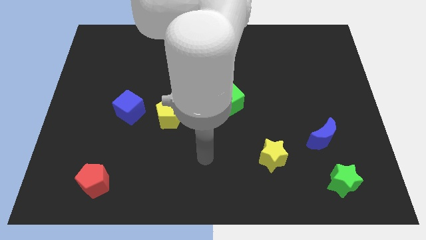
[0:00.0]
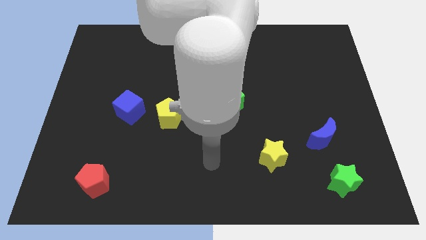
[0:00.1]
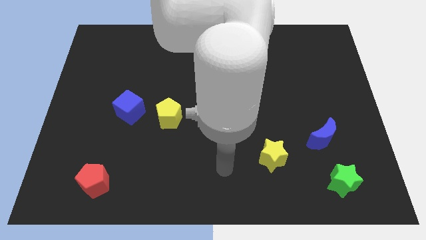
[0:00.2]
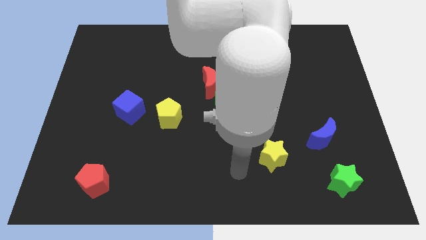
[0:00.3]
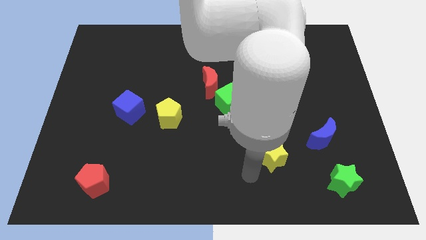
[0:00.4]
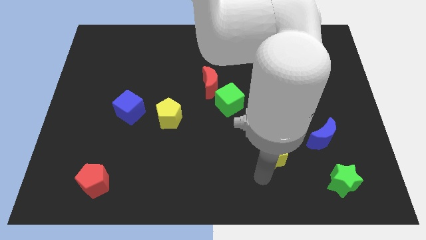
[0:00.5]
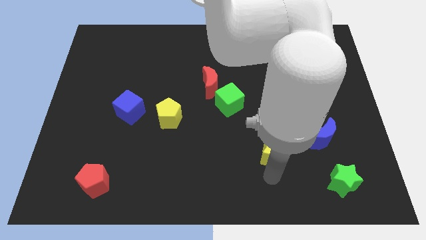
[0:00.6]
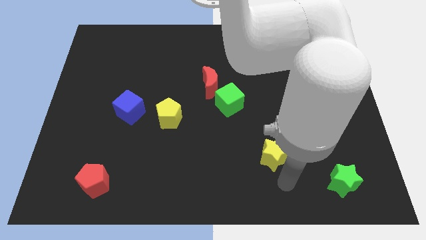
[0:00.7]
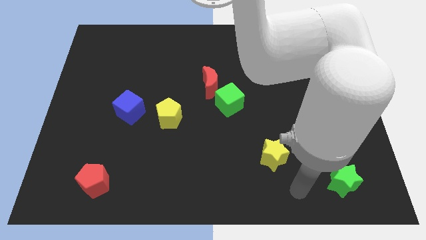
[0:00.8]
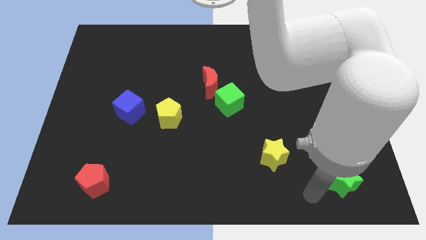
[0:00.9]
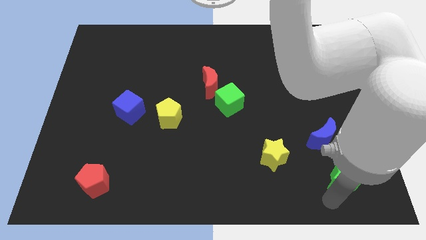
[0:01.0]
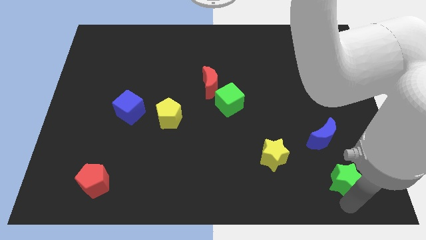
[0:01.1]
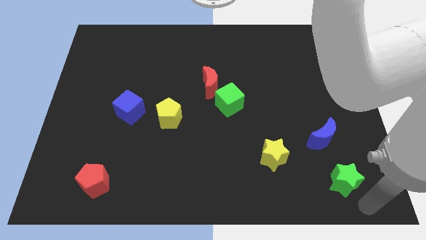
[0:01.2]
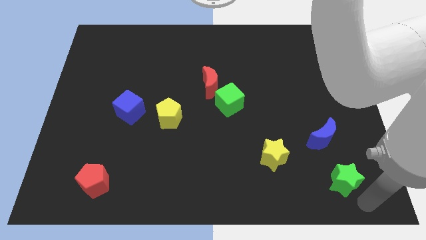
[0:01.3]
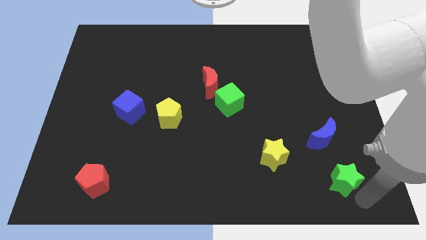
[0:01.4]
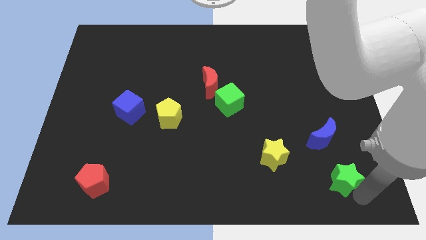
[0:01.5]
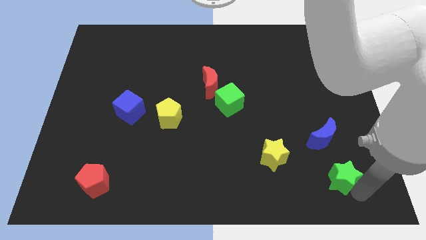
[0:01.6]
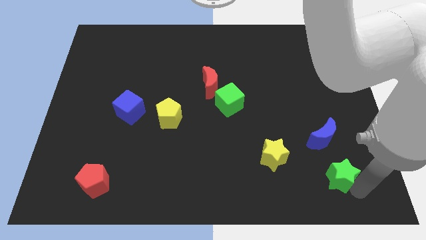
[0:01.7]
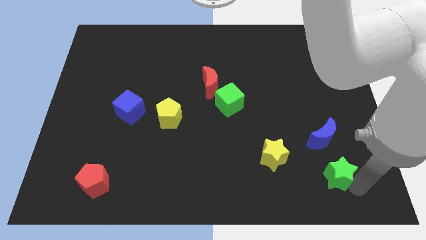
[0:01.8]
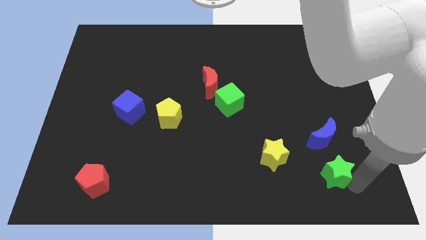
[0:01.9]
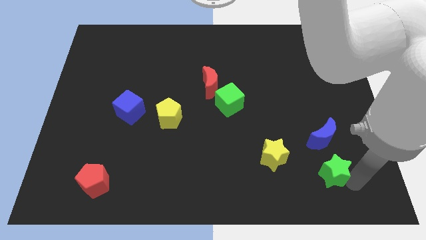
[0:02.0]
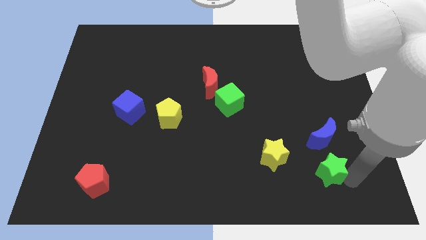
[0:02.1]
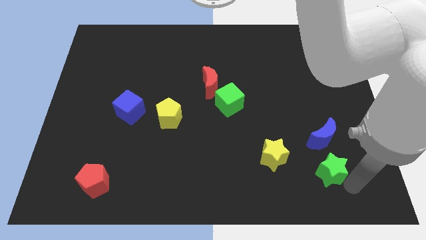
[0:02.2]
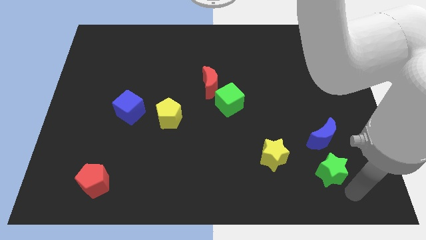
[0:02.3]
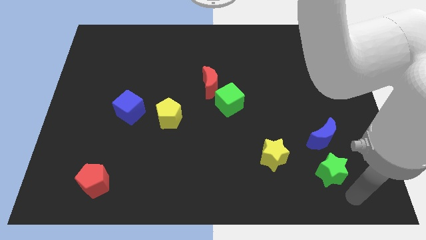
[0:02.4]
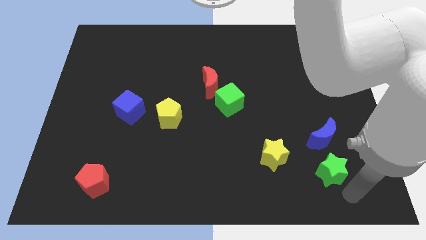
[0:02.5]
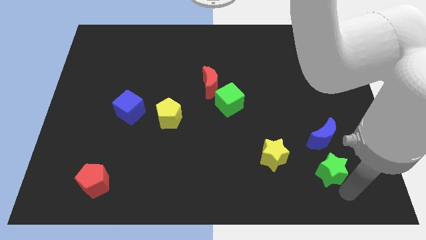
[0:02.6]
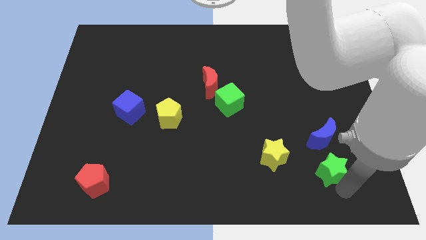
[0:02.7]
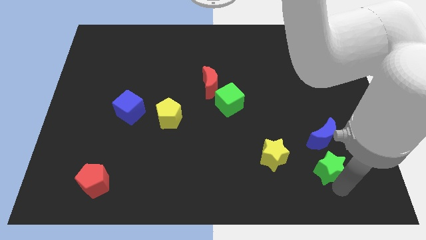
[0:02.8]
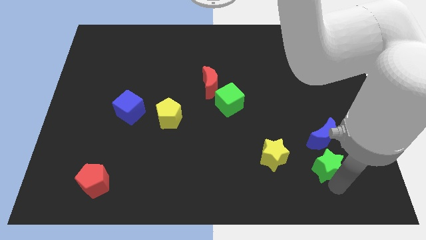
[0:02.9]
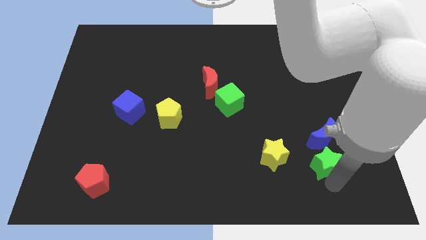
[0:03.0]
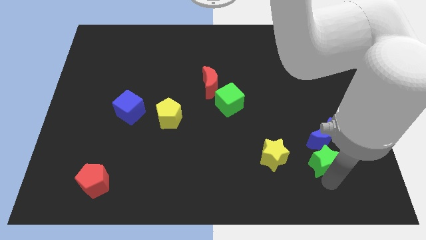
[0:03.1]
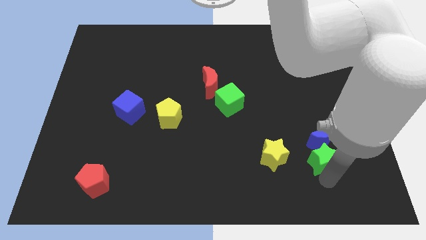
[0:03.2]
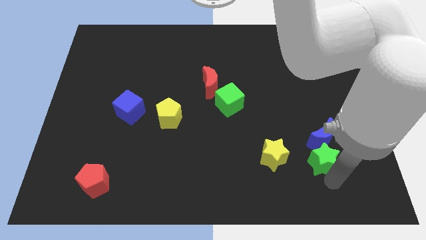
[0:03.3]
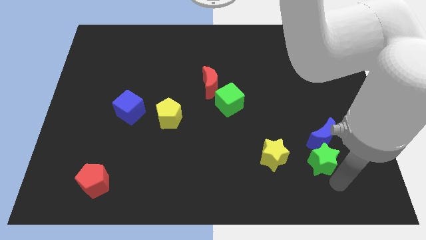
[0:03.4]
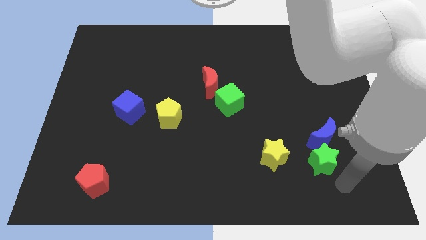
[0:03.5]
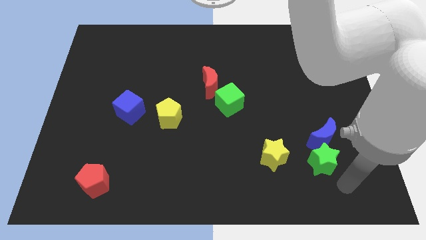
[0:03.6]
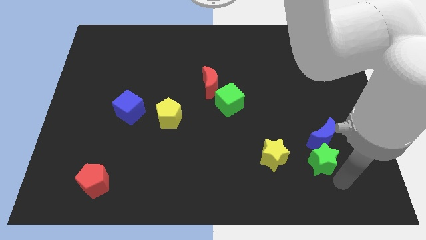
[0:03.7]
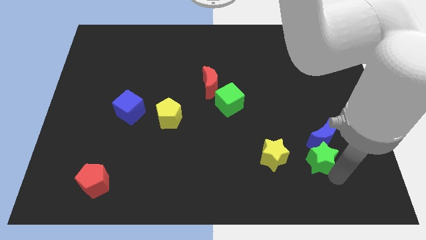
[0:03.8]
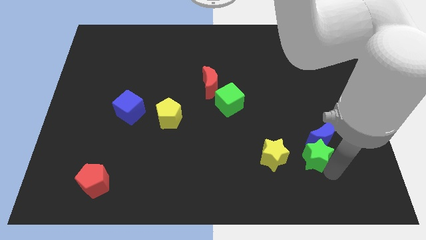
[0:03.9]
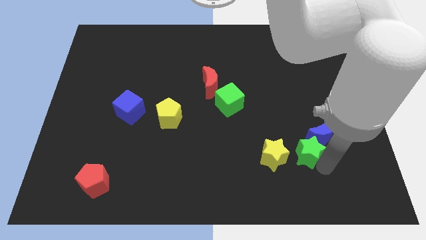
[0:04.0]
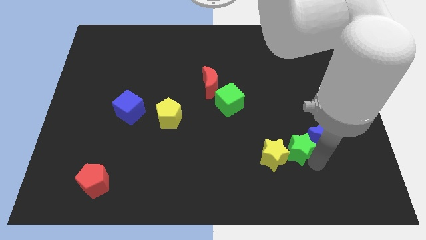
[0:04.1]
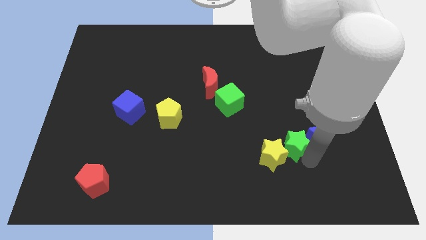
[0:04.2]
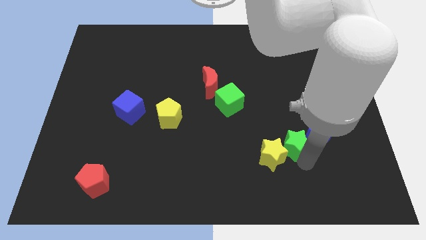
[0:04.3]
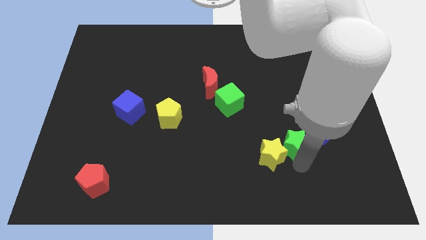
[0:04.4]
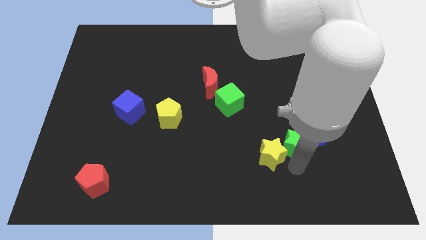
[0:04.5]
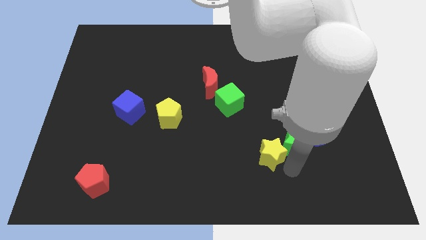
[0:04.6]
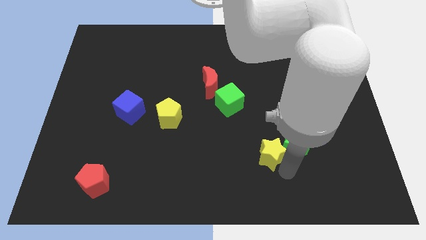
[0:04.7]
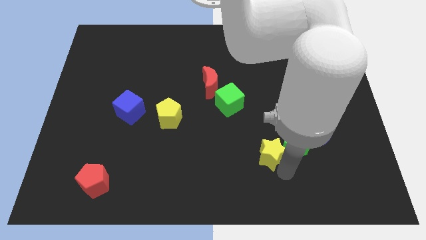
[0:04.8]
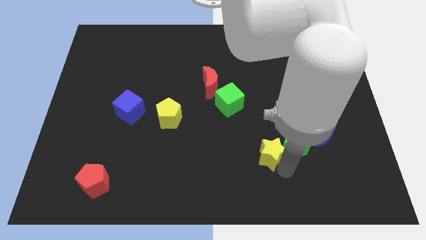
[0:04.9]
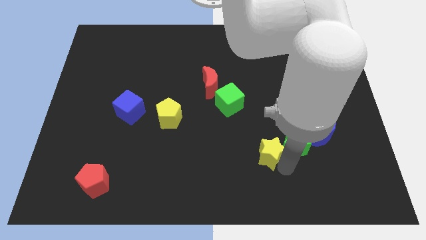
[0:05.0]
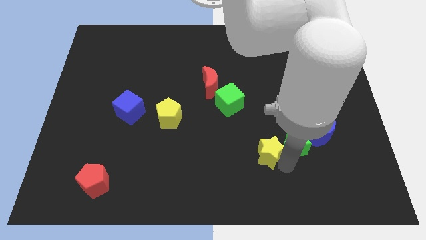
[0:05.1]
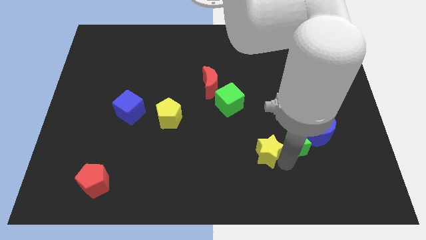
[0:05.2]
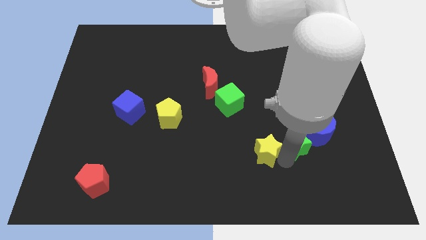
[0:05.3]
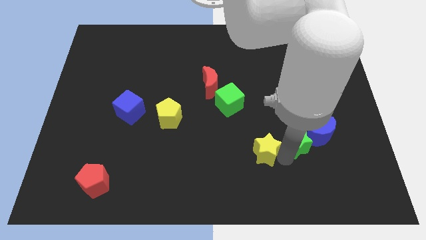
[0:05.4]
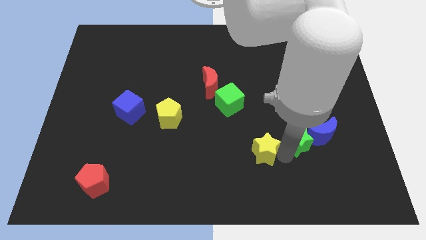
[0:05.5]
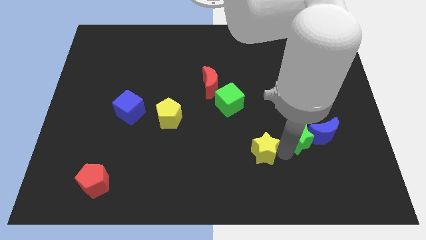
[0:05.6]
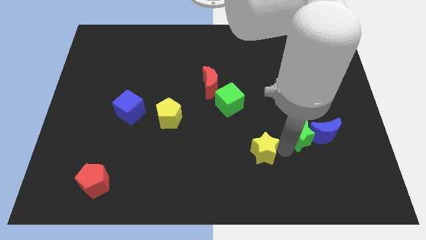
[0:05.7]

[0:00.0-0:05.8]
push the green star to the top left of the blue moon

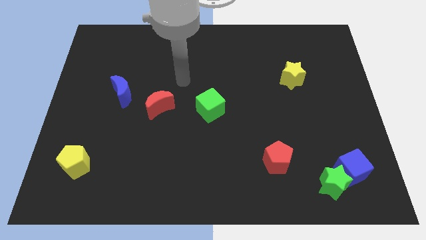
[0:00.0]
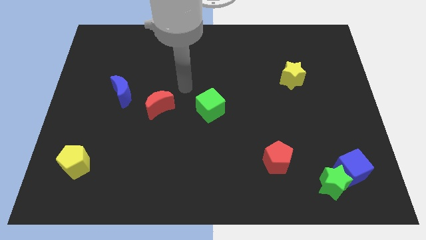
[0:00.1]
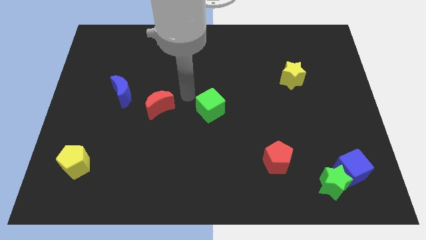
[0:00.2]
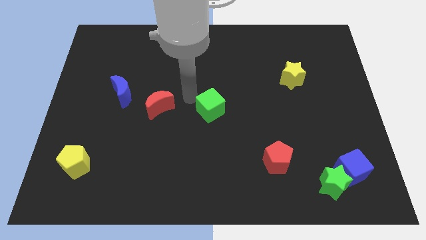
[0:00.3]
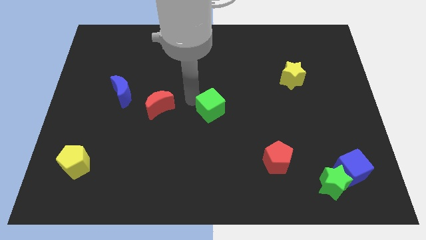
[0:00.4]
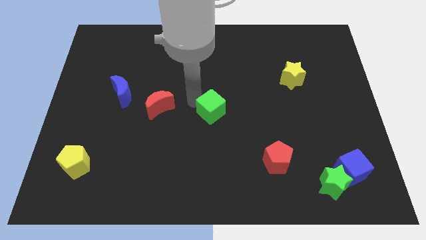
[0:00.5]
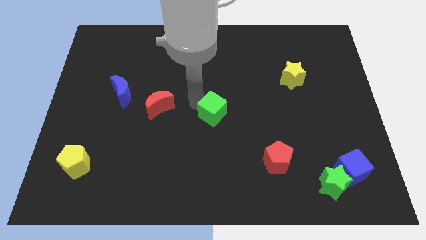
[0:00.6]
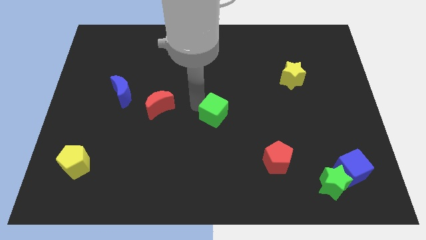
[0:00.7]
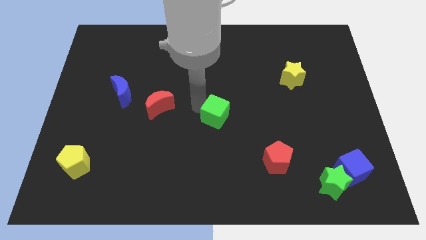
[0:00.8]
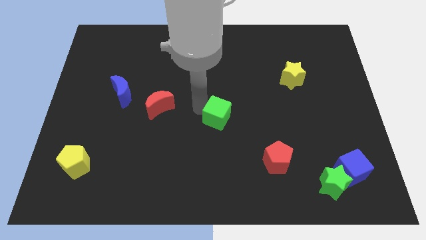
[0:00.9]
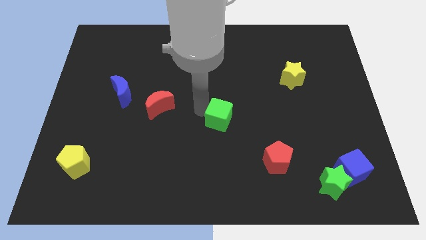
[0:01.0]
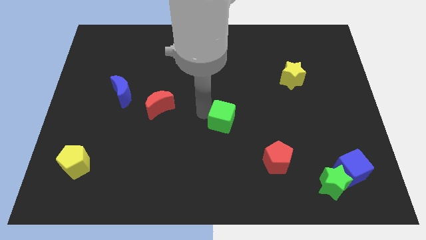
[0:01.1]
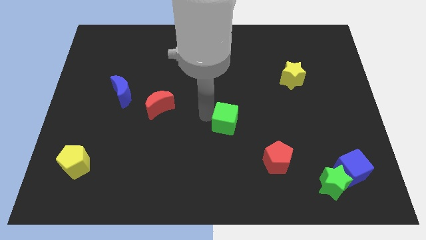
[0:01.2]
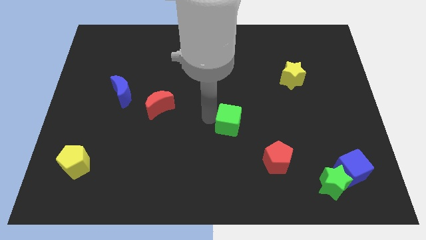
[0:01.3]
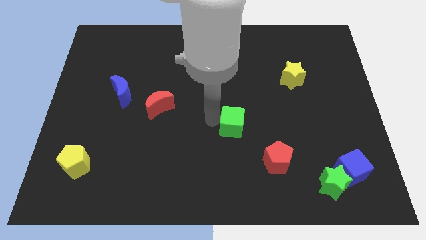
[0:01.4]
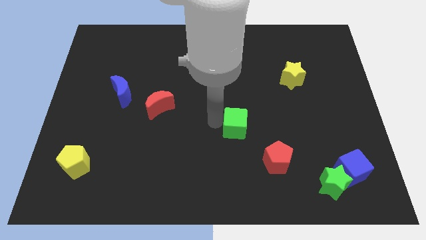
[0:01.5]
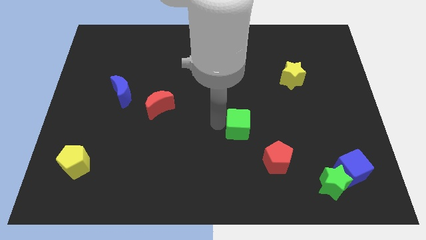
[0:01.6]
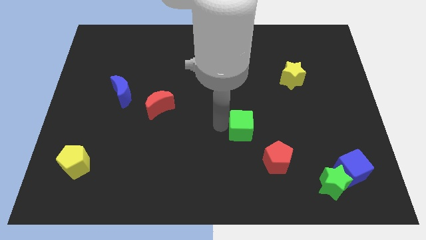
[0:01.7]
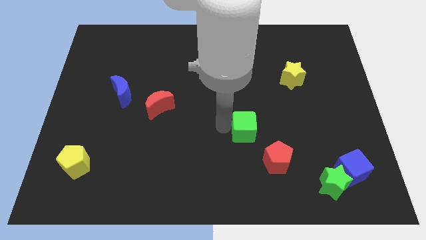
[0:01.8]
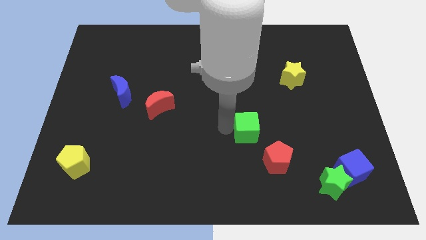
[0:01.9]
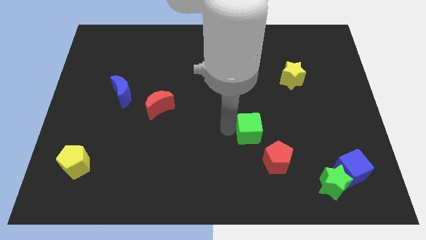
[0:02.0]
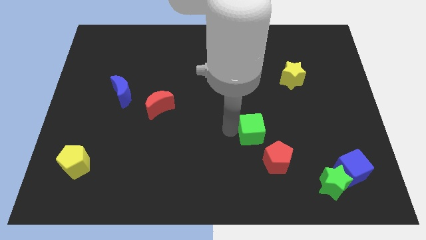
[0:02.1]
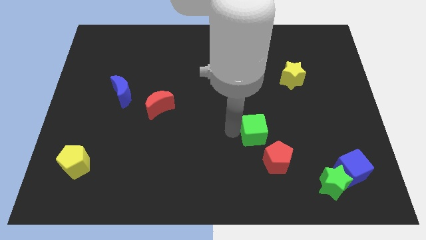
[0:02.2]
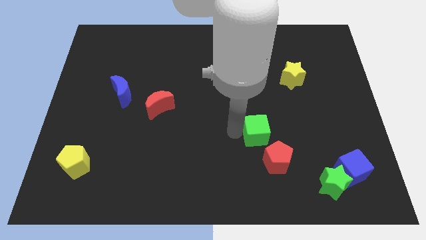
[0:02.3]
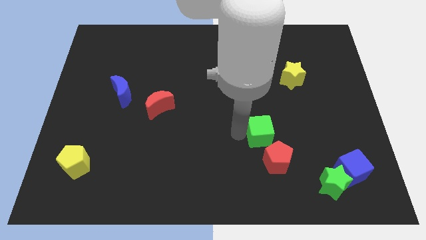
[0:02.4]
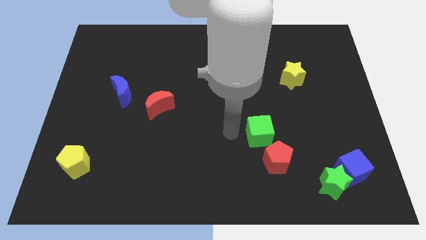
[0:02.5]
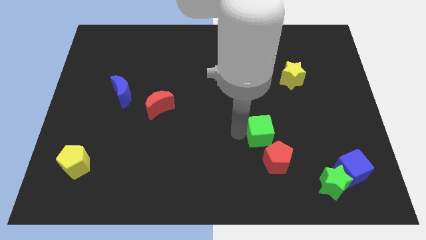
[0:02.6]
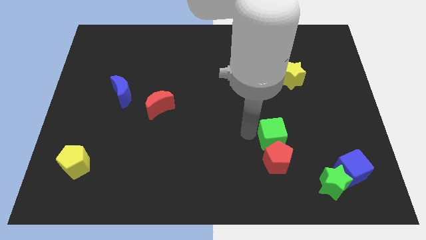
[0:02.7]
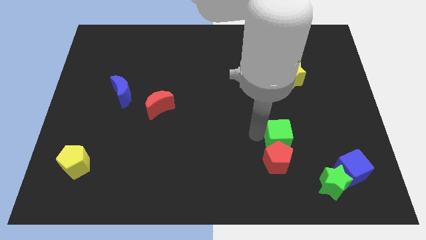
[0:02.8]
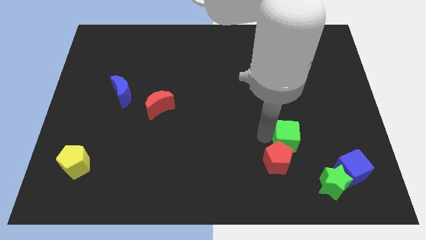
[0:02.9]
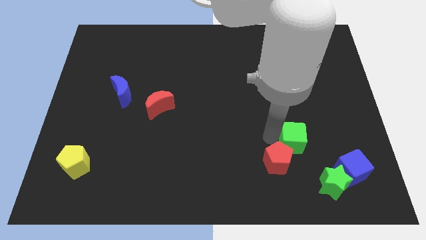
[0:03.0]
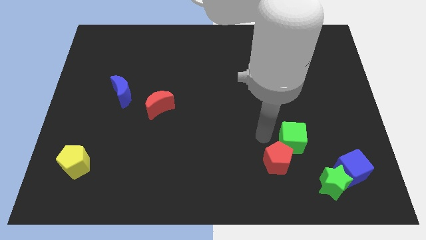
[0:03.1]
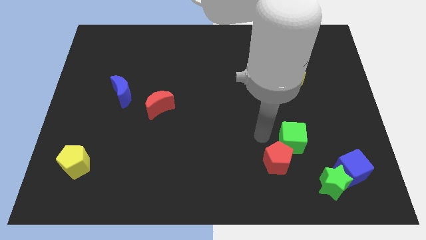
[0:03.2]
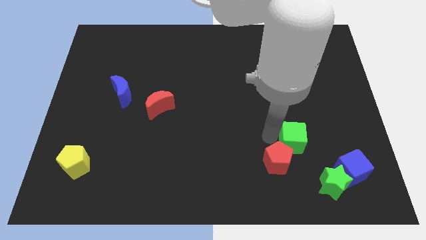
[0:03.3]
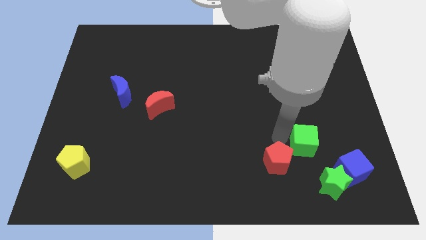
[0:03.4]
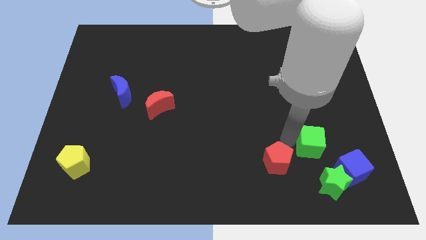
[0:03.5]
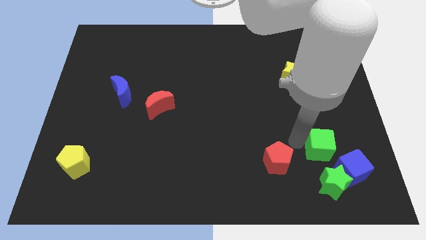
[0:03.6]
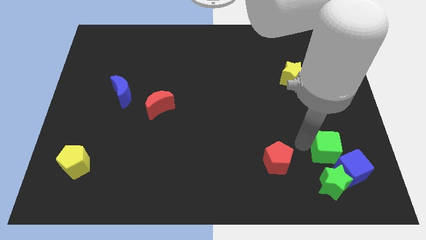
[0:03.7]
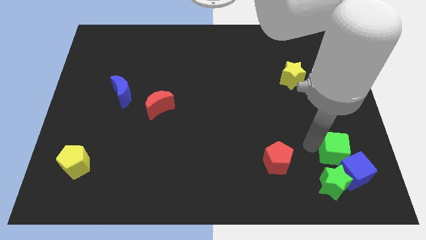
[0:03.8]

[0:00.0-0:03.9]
slide the green cube to the top right side of the green star
